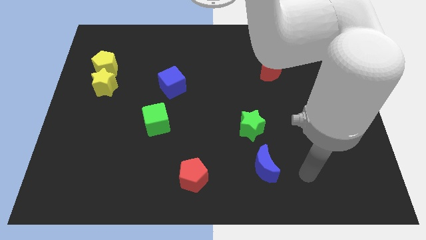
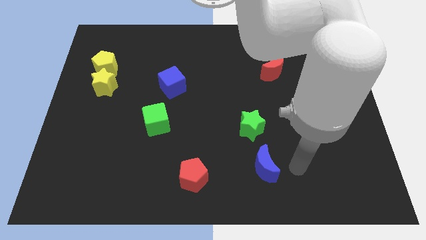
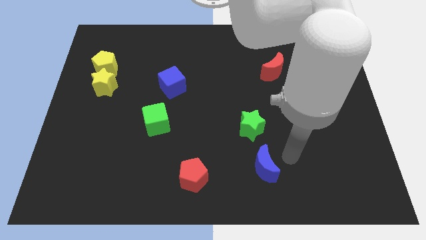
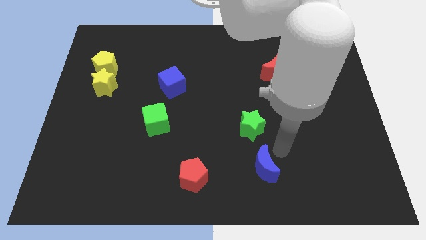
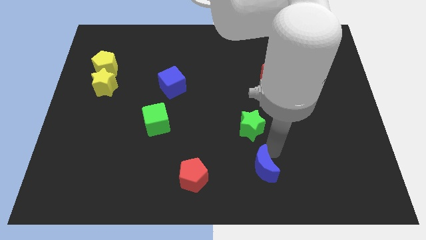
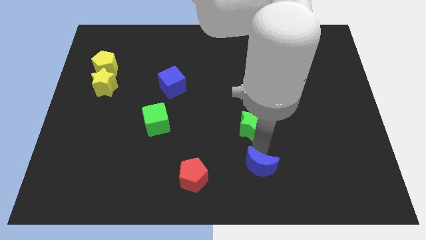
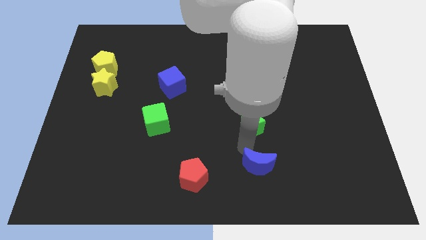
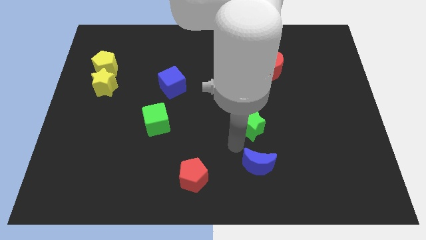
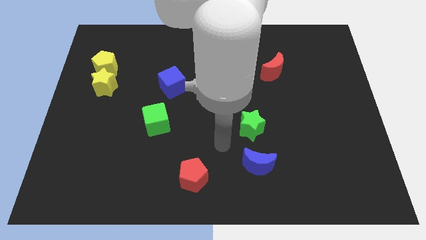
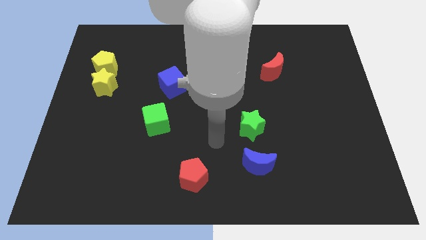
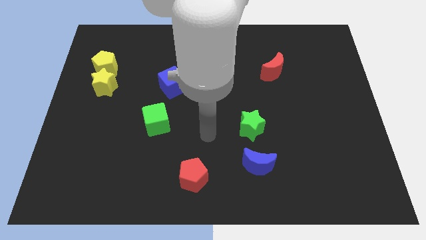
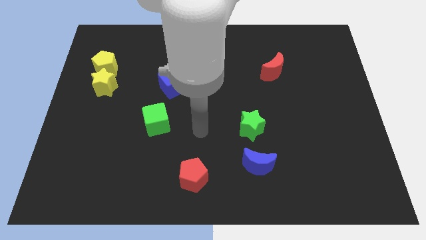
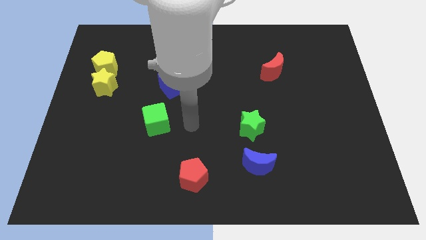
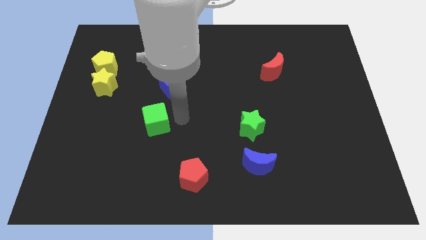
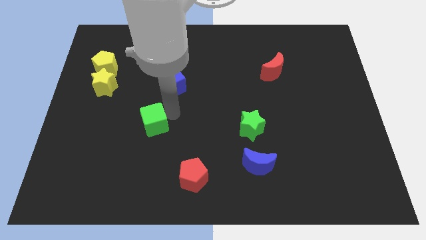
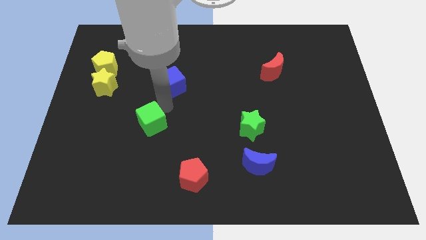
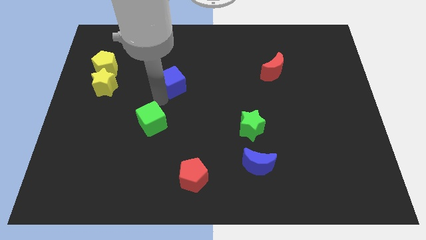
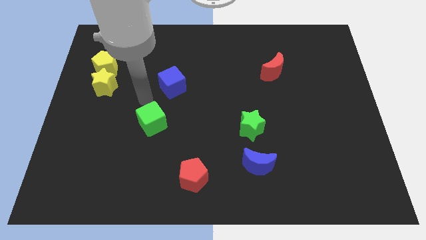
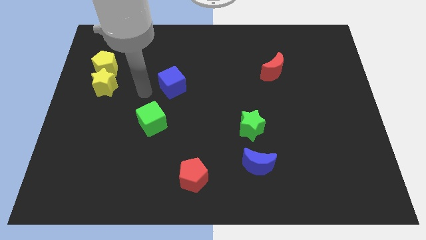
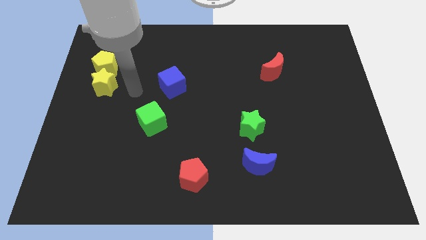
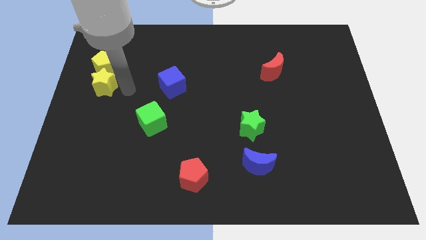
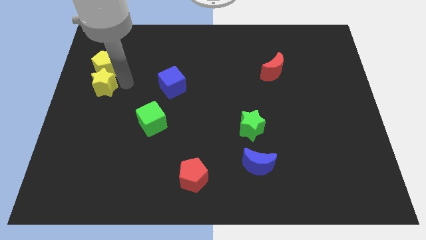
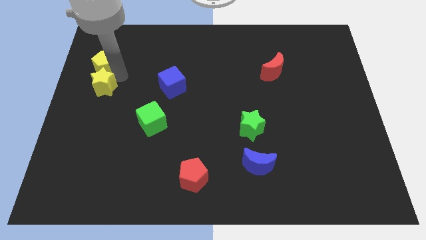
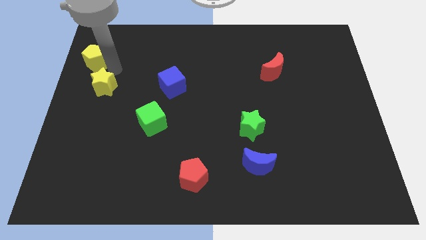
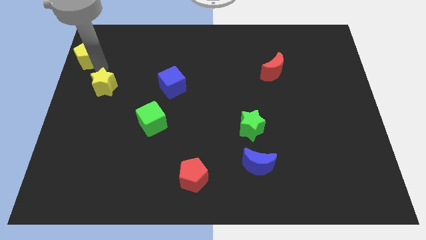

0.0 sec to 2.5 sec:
separate the yellow star from the yellow pentagon

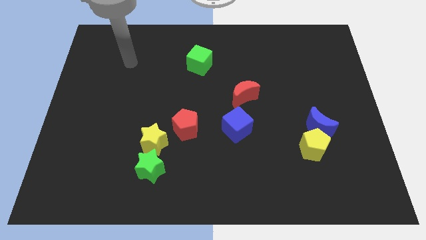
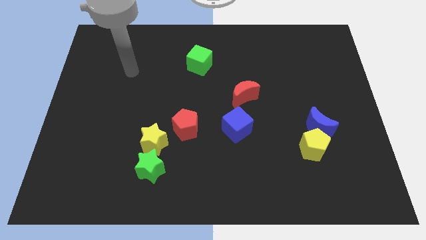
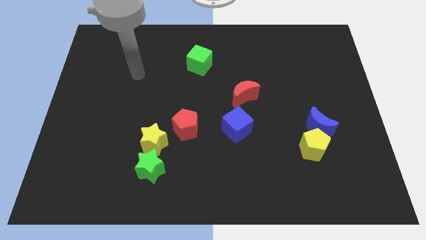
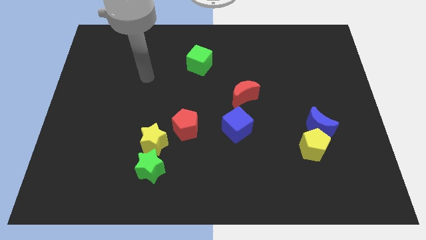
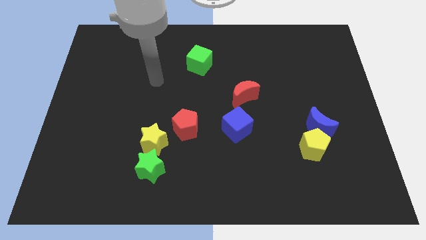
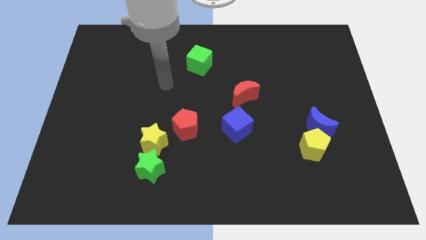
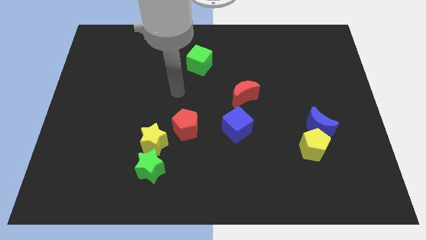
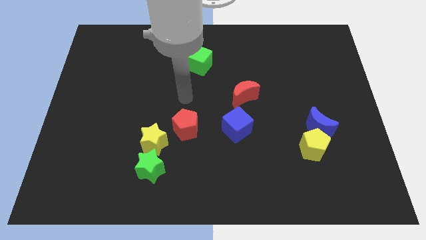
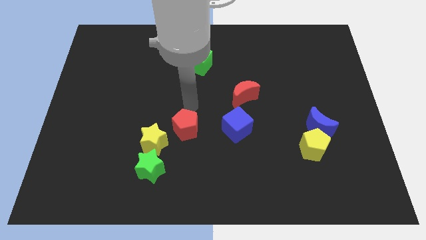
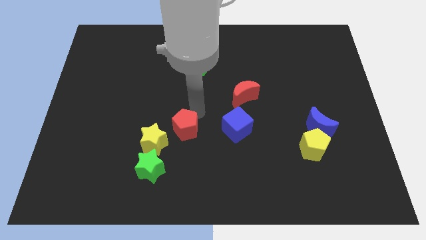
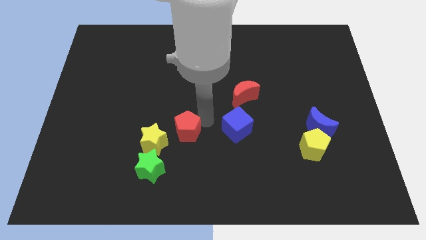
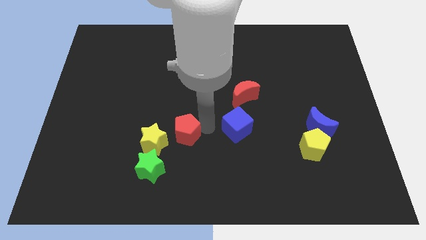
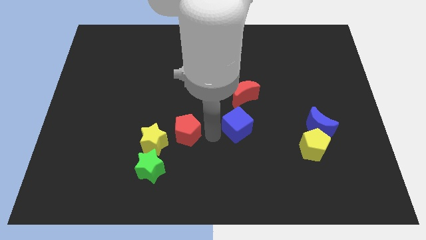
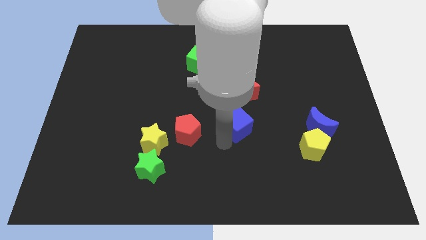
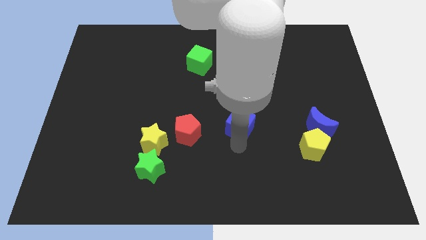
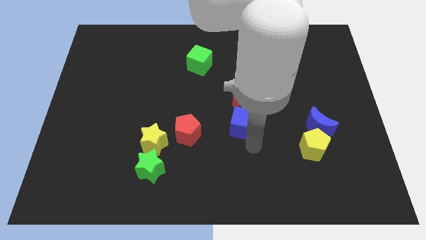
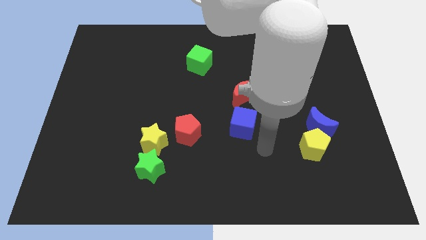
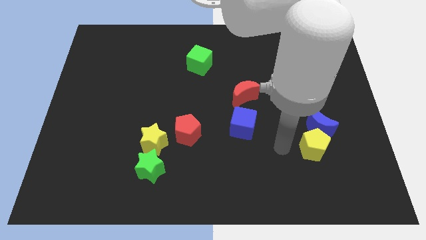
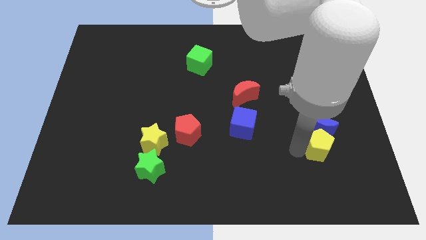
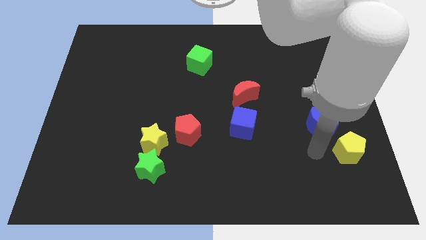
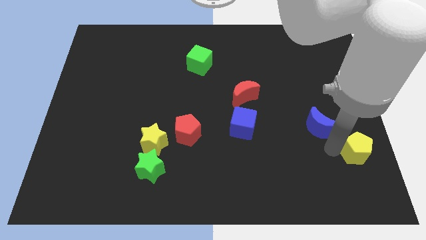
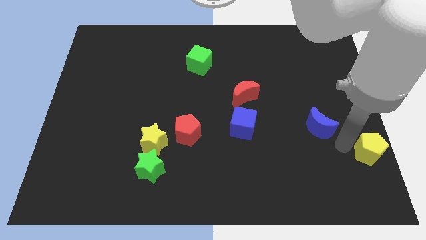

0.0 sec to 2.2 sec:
pull the blue moon apart from the yellow pentagon

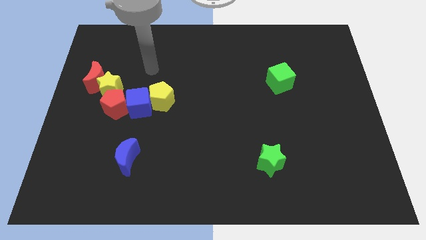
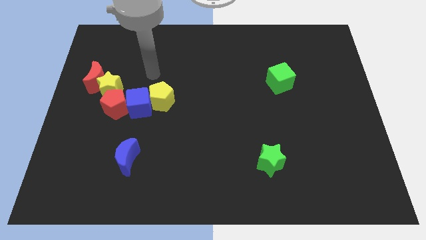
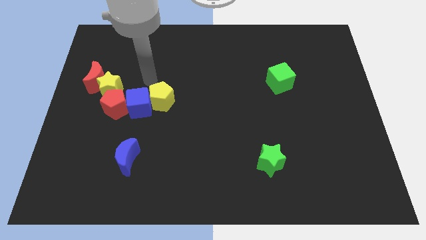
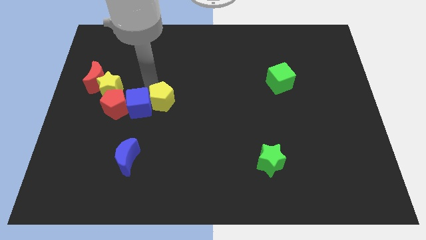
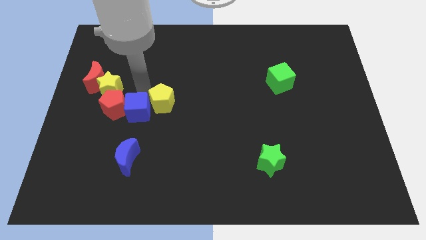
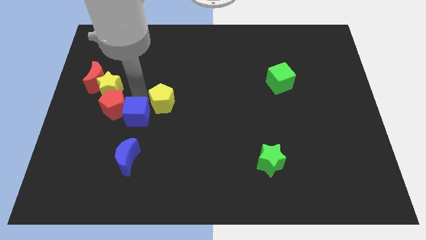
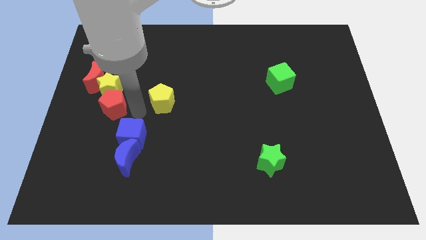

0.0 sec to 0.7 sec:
pull the yellow pentagon apart from the blue cube

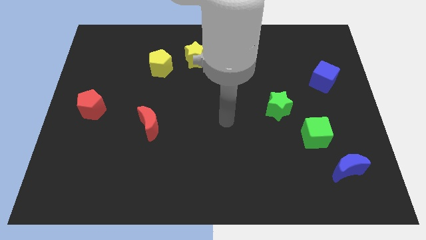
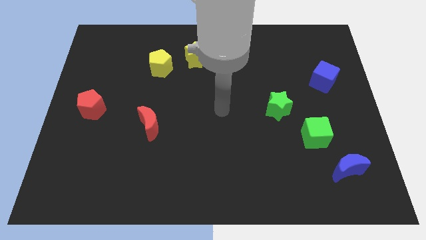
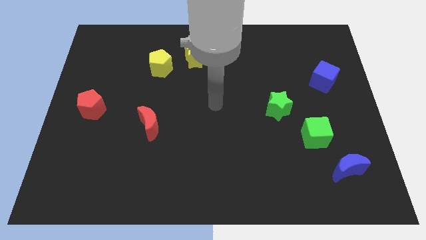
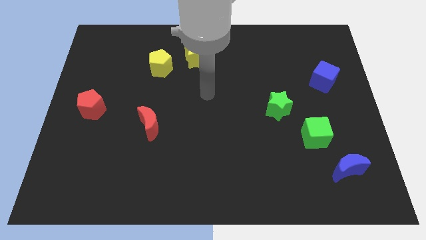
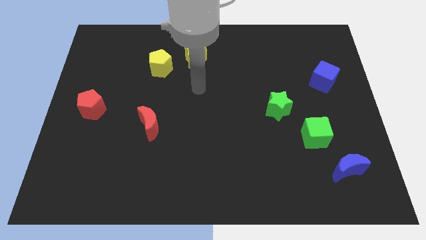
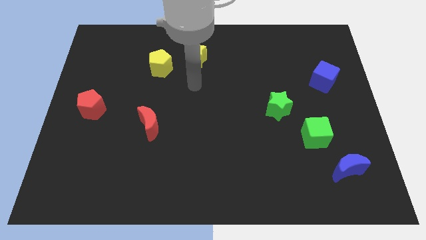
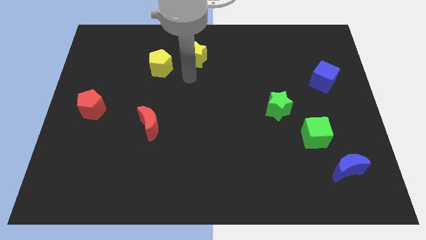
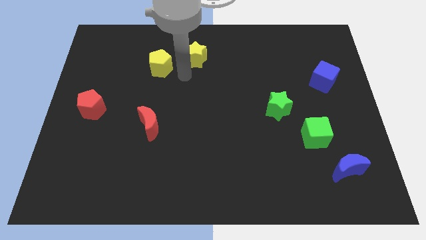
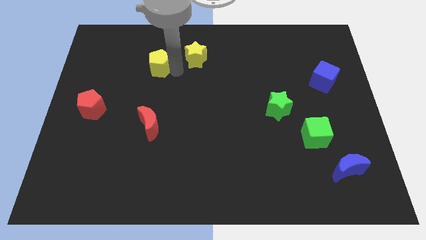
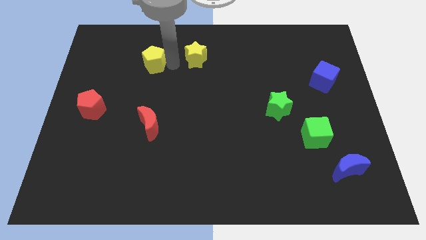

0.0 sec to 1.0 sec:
pull the yellow star apart from the yellow pentagon

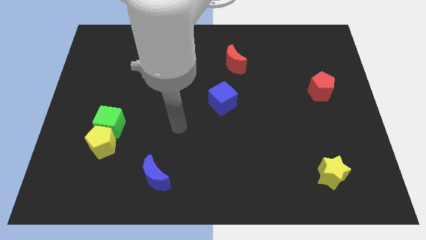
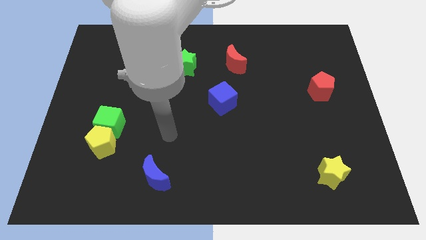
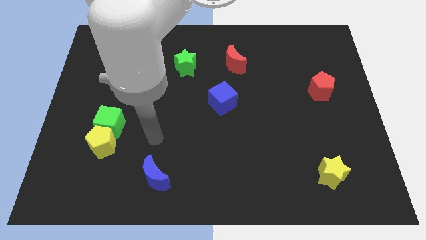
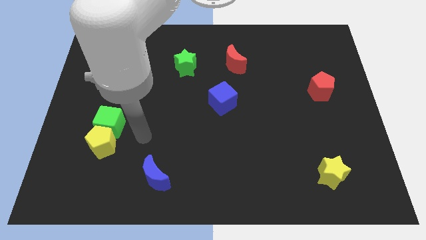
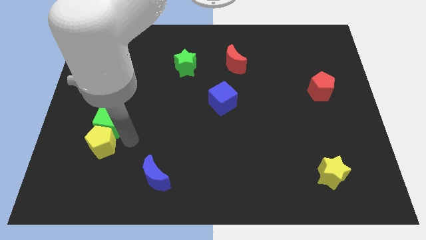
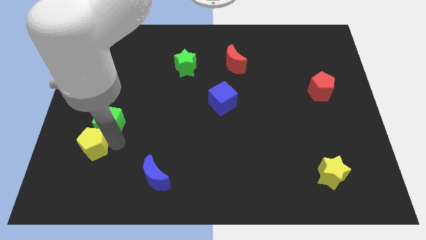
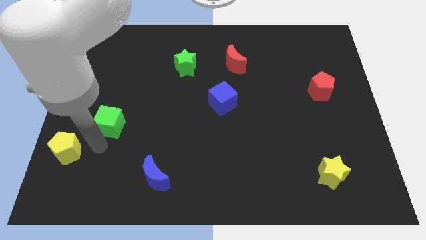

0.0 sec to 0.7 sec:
move the green cube away from the yellow pentagon

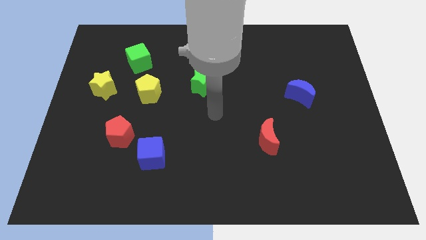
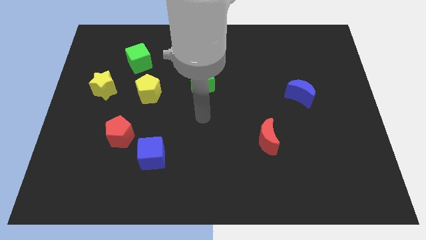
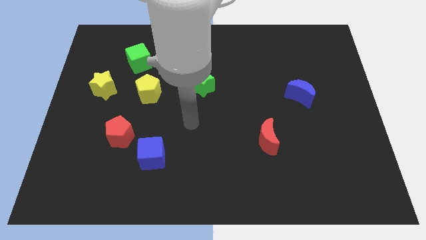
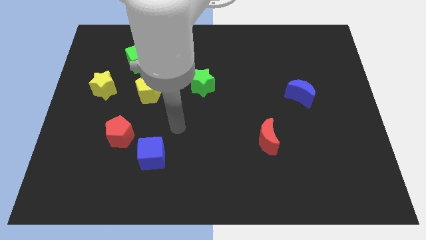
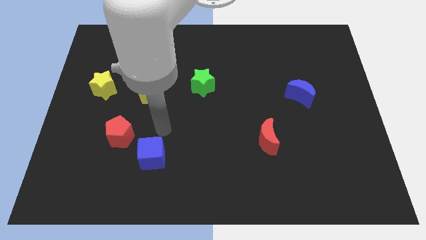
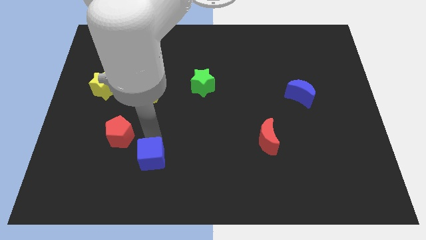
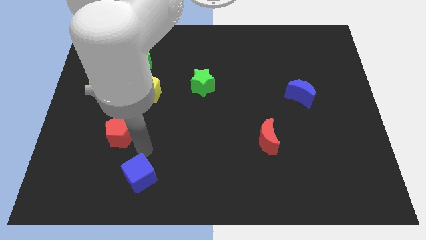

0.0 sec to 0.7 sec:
pull the red pentagon apart from the blue cube

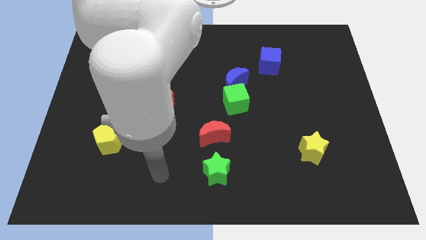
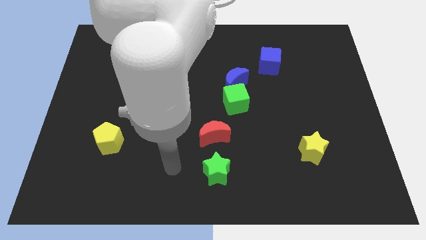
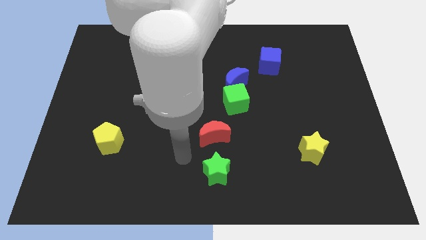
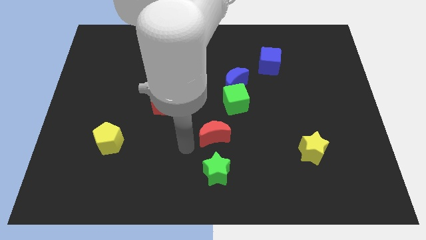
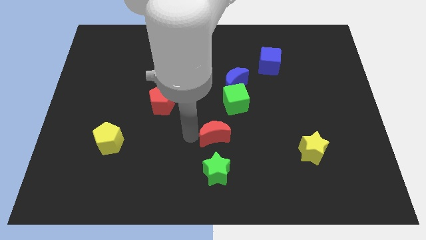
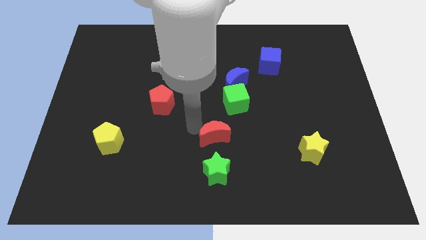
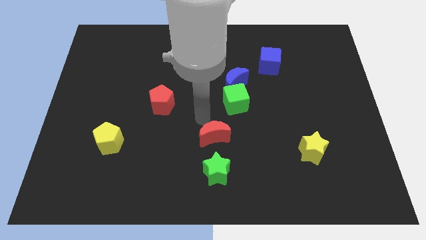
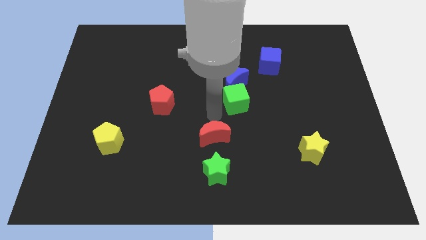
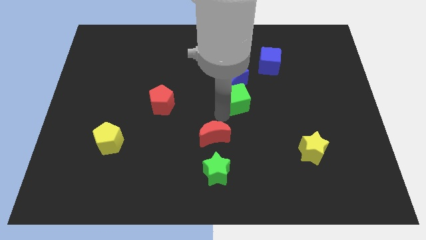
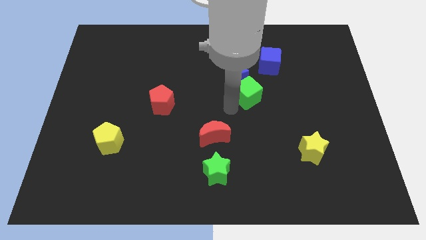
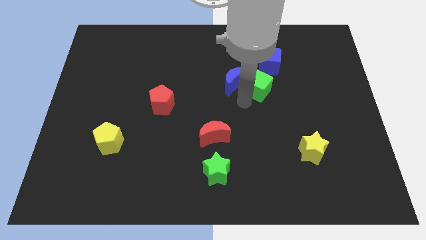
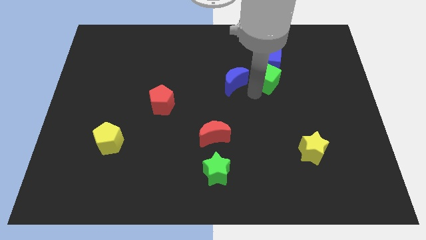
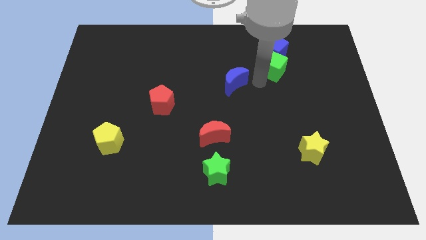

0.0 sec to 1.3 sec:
move the blue moon away from the green cube

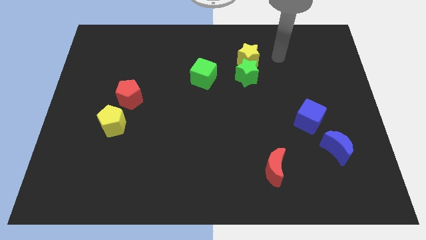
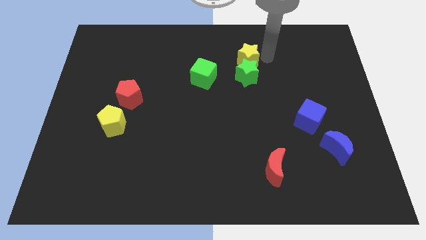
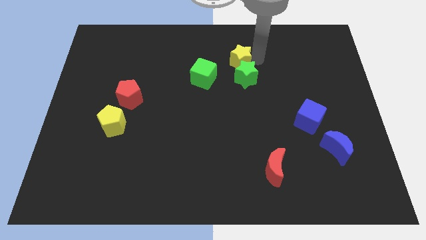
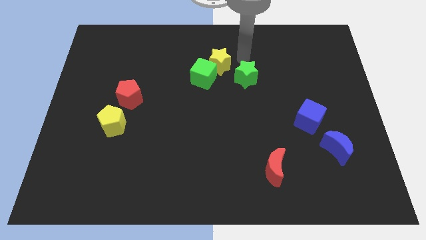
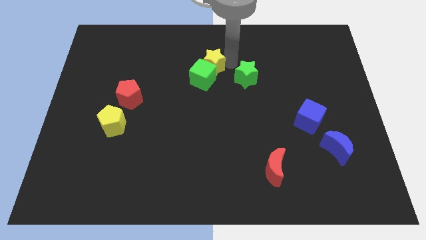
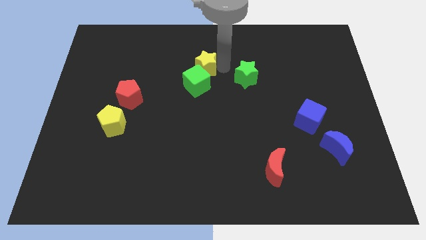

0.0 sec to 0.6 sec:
separate the green star from the yellow star
